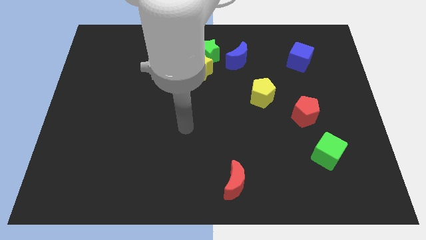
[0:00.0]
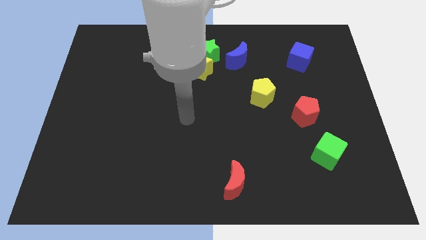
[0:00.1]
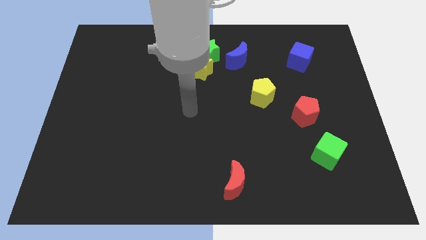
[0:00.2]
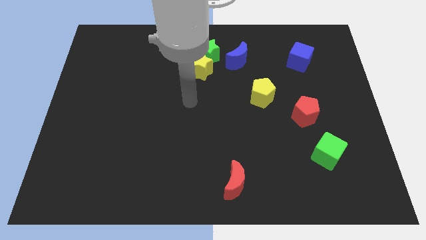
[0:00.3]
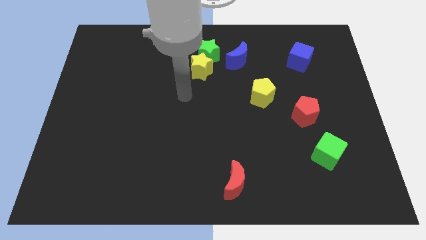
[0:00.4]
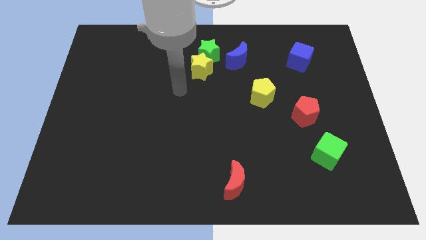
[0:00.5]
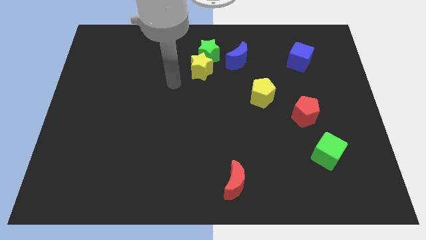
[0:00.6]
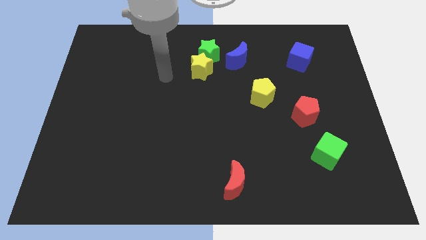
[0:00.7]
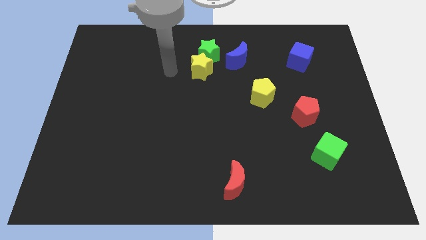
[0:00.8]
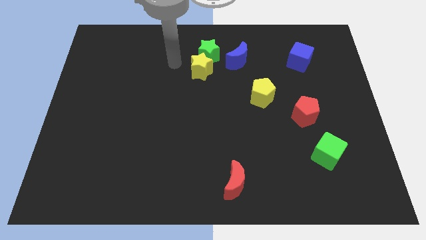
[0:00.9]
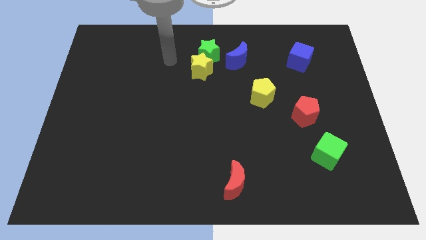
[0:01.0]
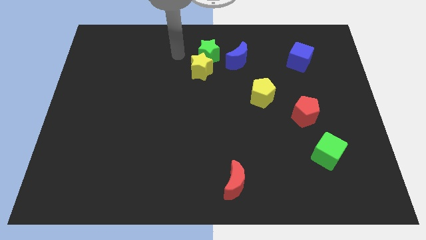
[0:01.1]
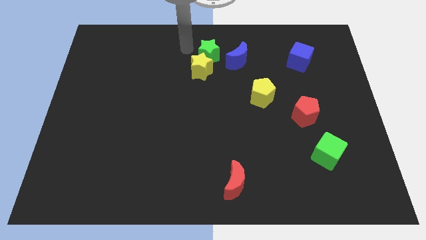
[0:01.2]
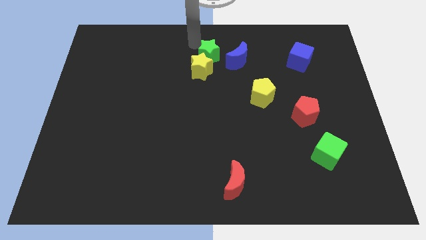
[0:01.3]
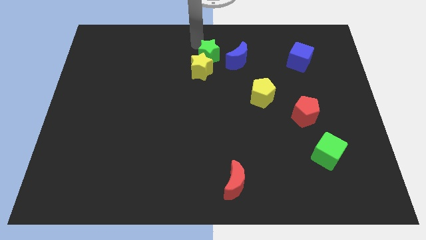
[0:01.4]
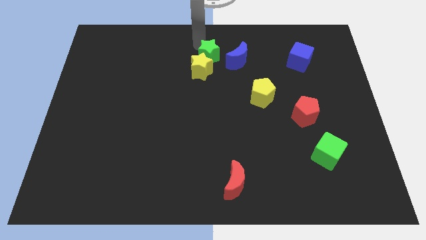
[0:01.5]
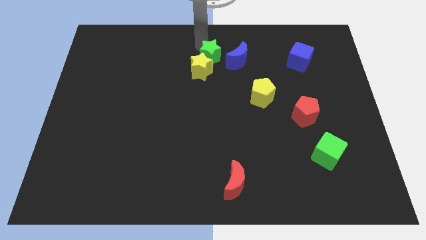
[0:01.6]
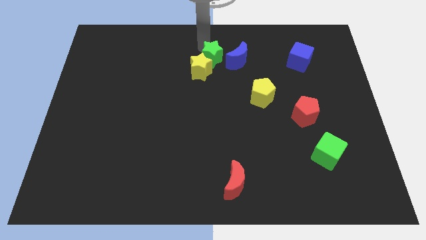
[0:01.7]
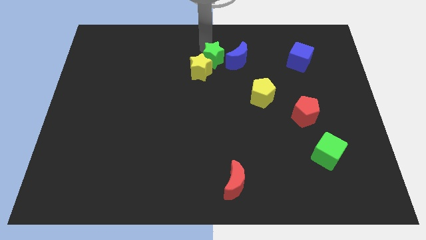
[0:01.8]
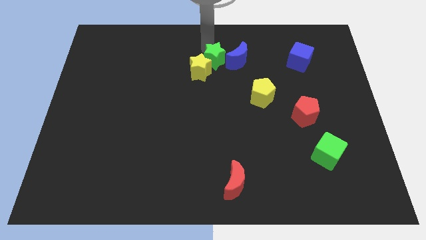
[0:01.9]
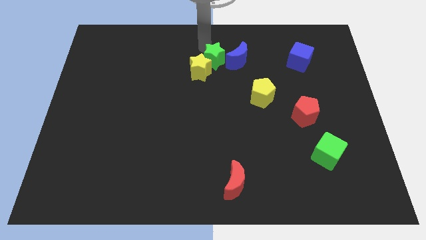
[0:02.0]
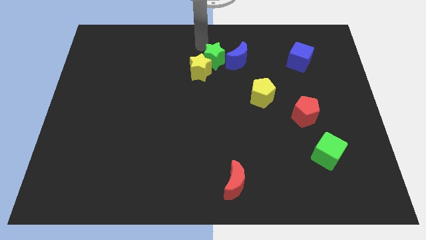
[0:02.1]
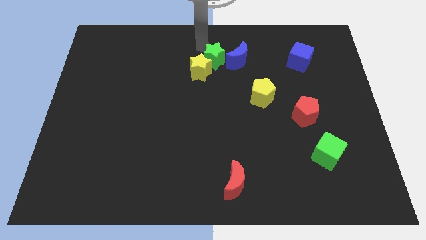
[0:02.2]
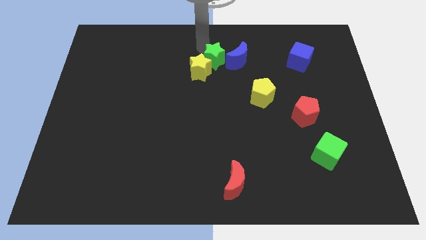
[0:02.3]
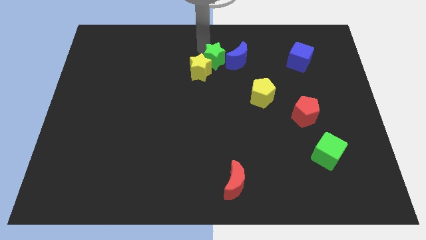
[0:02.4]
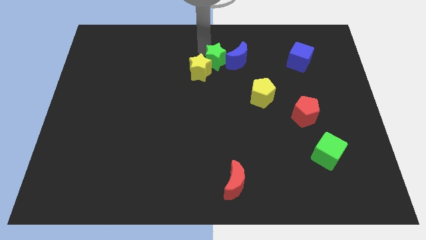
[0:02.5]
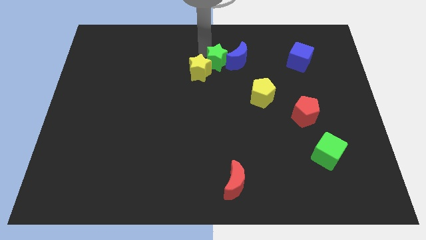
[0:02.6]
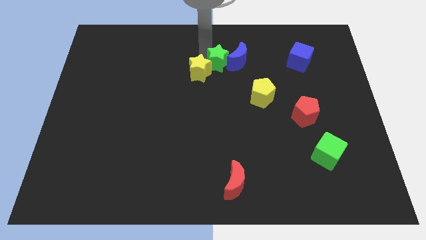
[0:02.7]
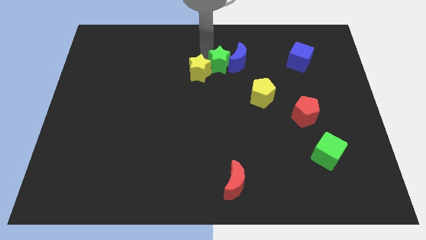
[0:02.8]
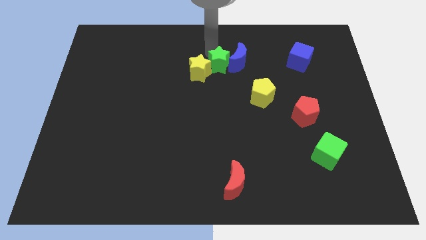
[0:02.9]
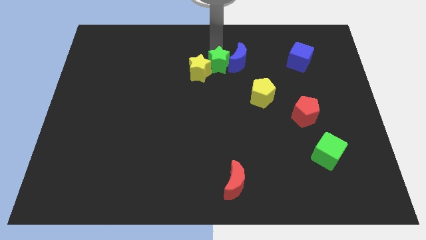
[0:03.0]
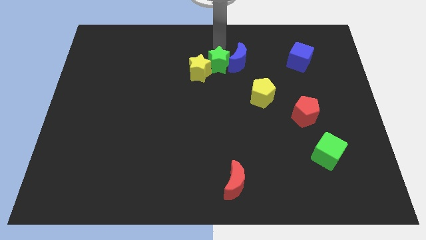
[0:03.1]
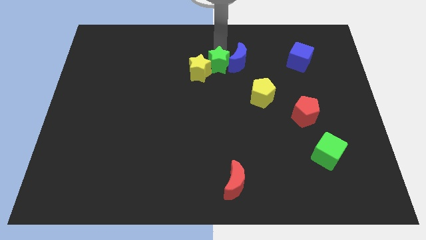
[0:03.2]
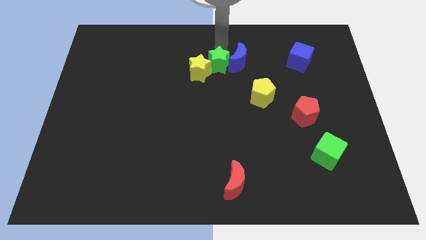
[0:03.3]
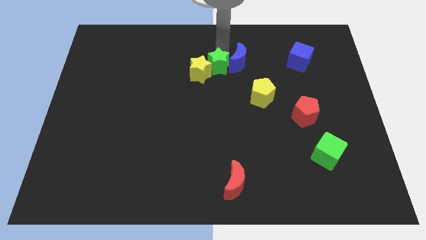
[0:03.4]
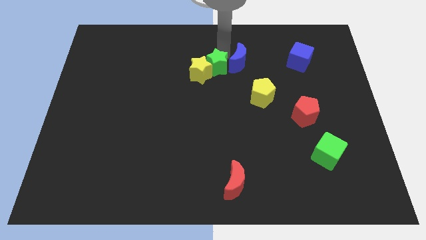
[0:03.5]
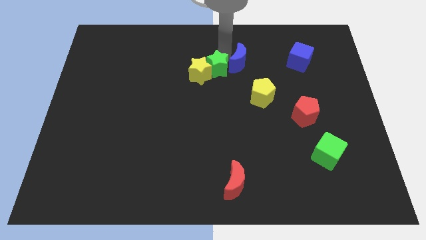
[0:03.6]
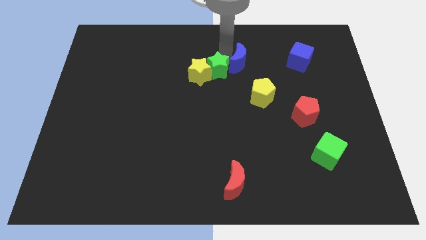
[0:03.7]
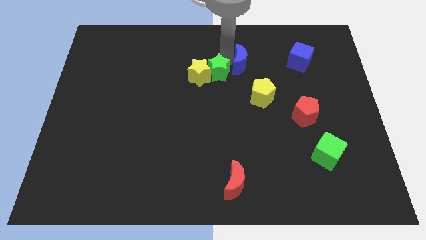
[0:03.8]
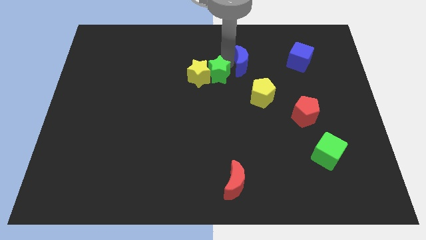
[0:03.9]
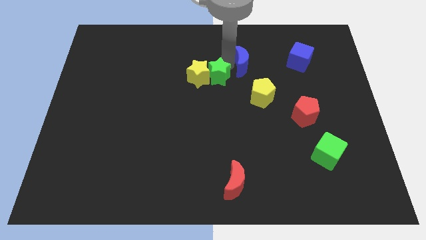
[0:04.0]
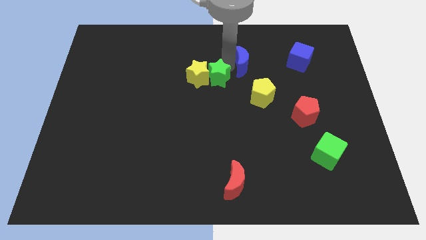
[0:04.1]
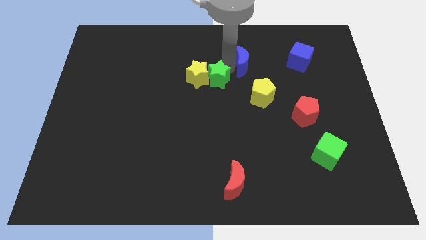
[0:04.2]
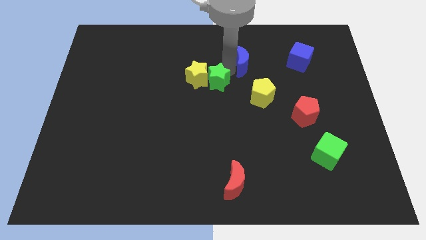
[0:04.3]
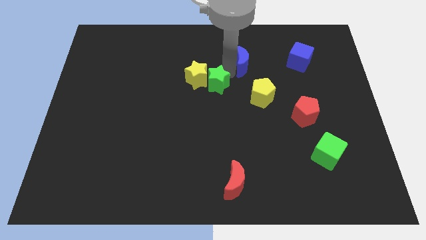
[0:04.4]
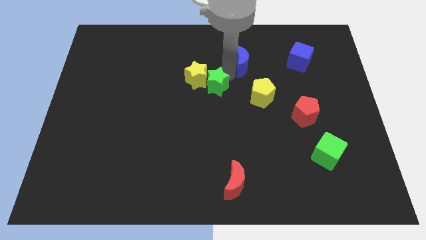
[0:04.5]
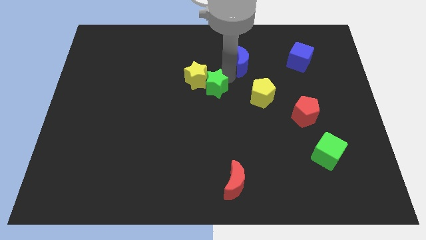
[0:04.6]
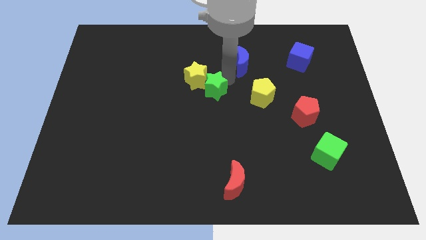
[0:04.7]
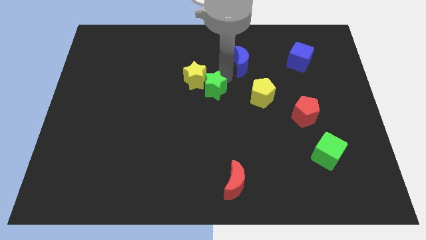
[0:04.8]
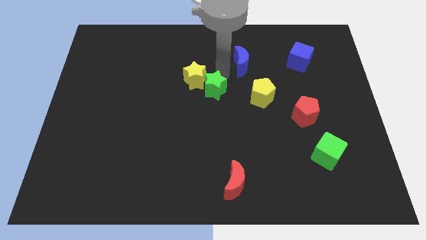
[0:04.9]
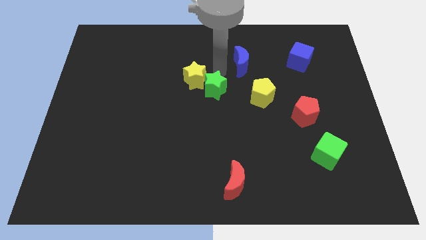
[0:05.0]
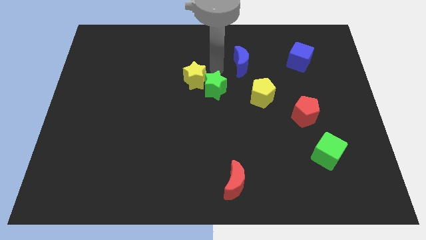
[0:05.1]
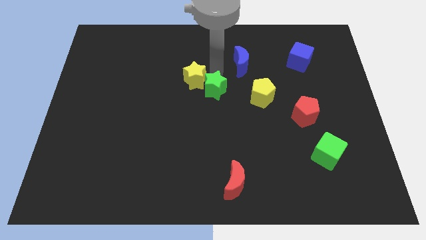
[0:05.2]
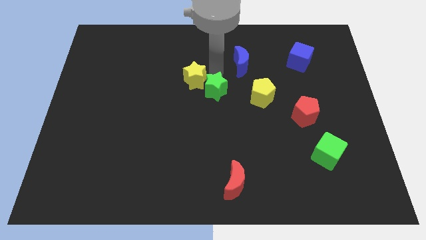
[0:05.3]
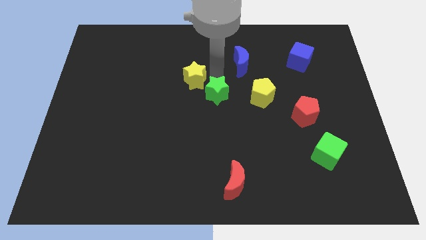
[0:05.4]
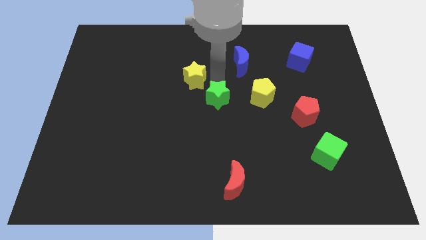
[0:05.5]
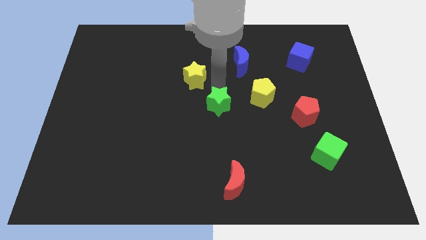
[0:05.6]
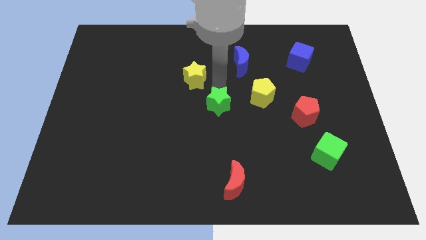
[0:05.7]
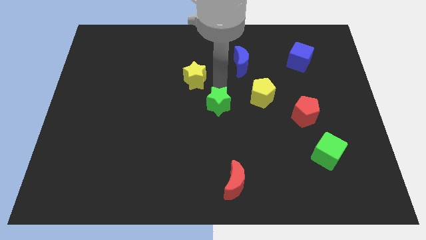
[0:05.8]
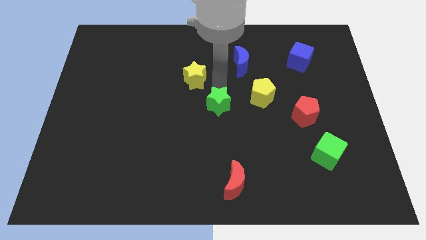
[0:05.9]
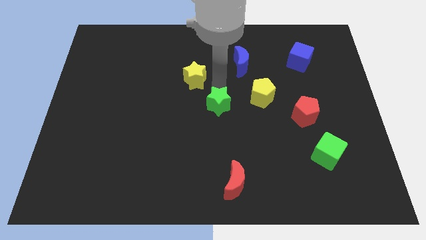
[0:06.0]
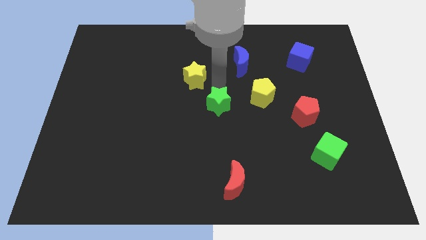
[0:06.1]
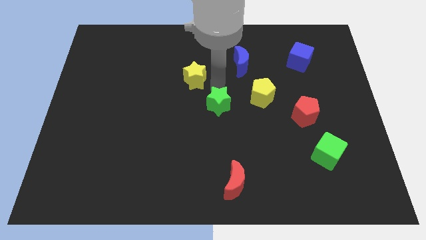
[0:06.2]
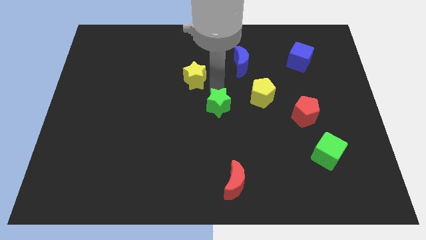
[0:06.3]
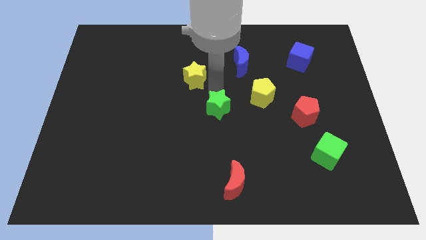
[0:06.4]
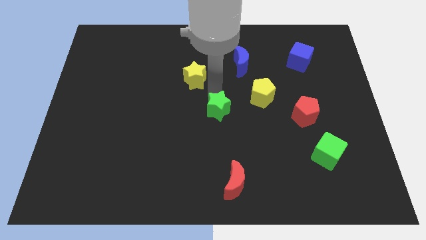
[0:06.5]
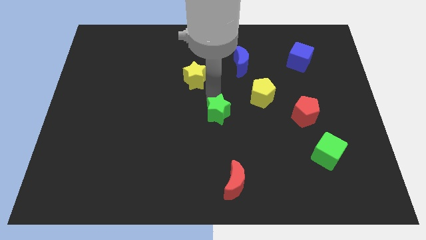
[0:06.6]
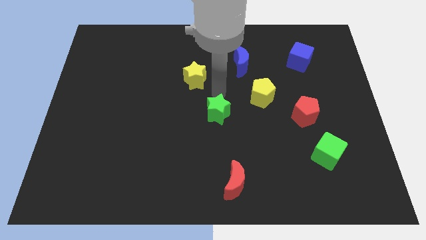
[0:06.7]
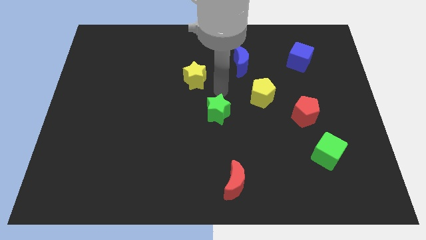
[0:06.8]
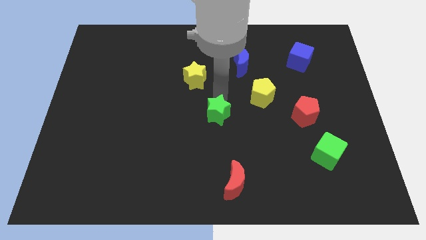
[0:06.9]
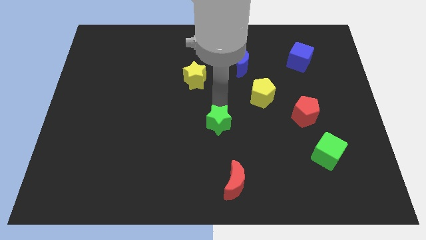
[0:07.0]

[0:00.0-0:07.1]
slide the green star down

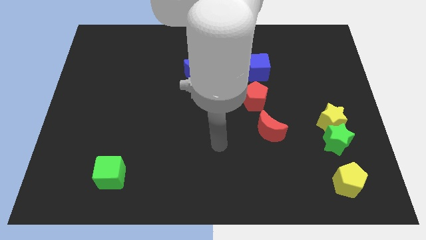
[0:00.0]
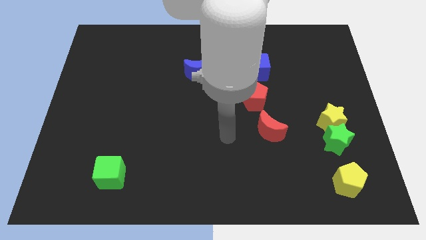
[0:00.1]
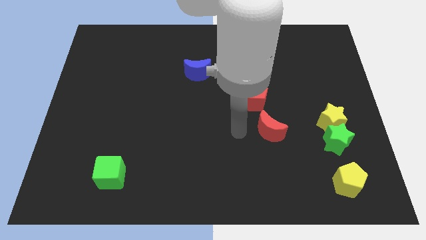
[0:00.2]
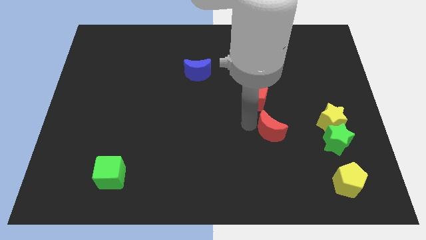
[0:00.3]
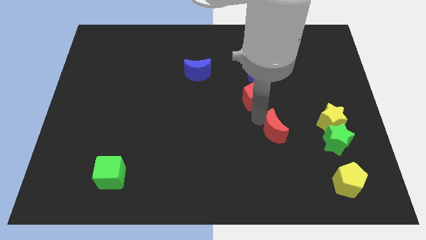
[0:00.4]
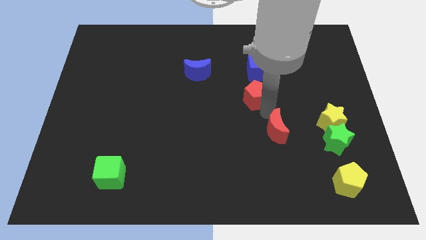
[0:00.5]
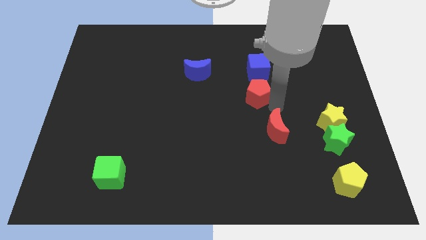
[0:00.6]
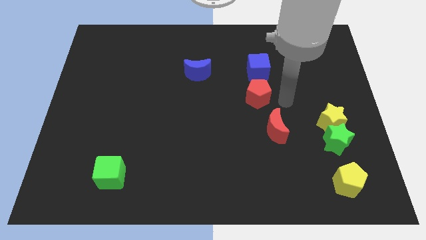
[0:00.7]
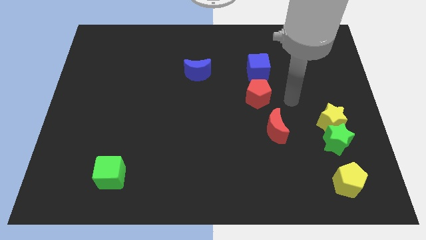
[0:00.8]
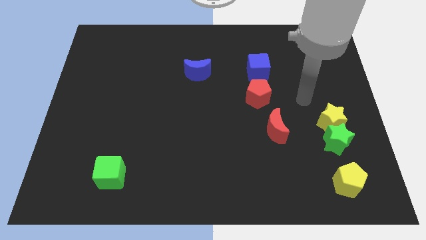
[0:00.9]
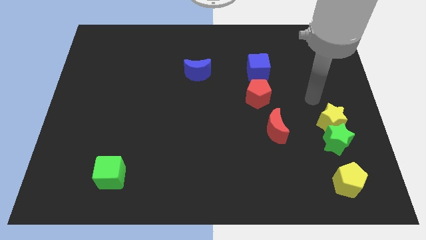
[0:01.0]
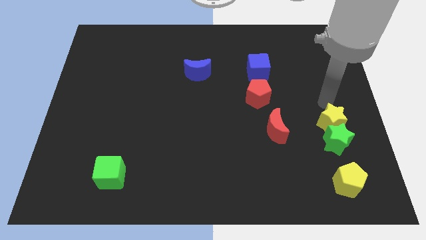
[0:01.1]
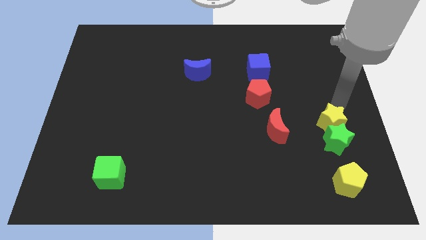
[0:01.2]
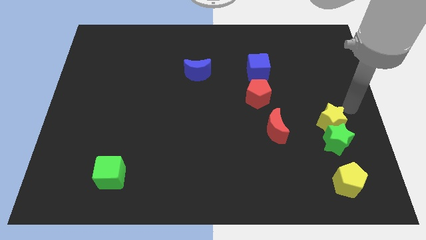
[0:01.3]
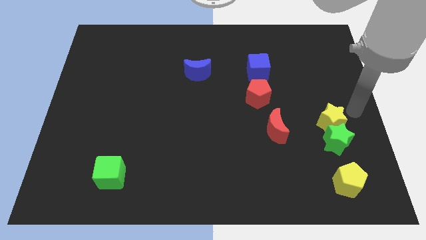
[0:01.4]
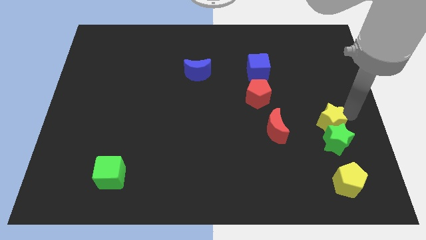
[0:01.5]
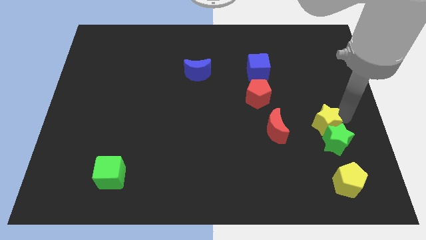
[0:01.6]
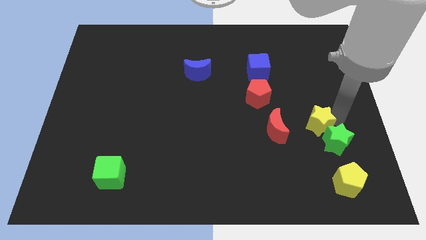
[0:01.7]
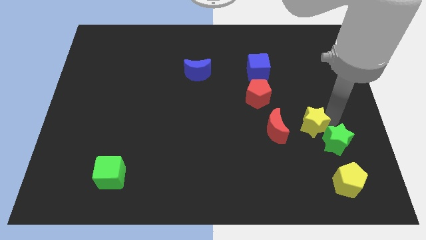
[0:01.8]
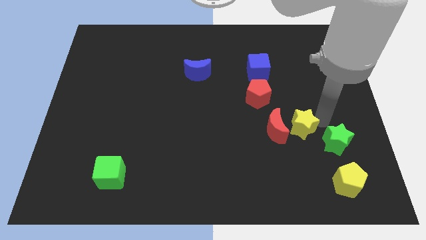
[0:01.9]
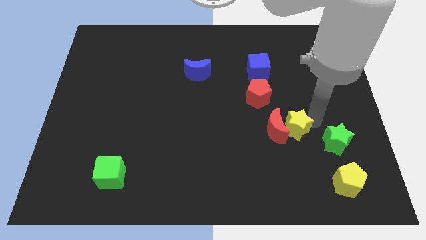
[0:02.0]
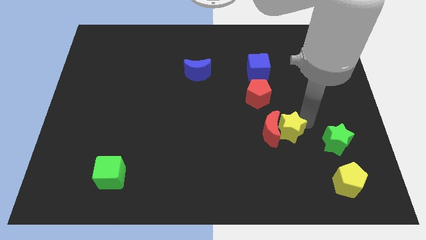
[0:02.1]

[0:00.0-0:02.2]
move the yellow star down and left diagonally slightly
